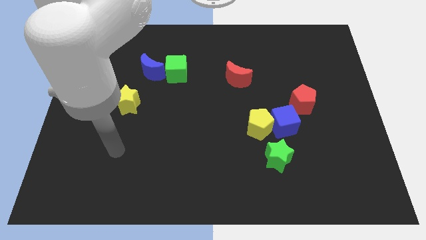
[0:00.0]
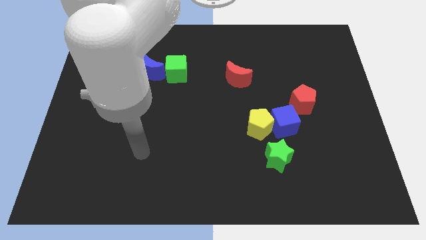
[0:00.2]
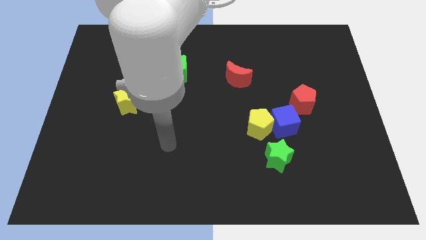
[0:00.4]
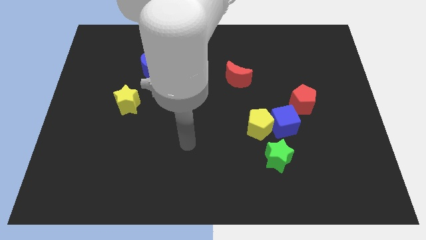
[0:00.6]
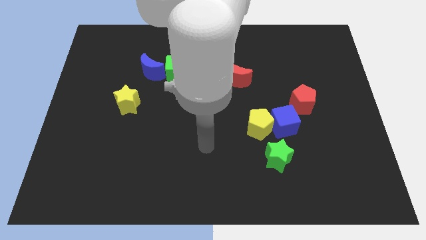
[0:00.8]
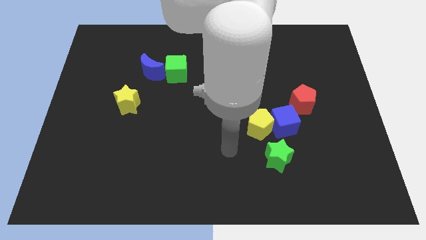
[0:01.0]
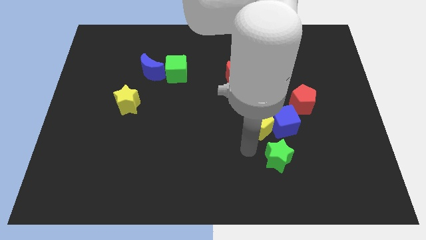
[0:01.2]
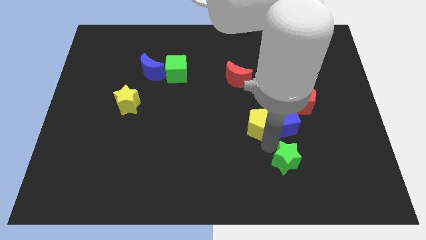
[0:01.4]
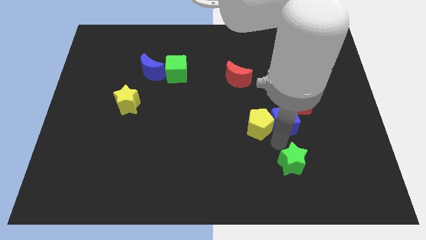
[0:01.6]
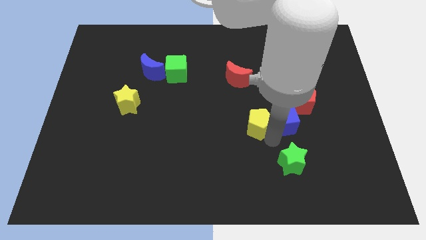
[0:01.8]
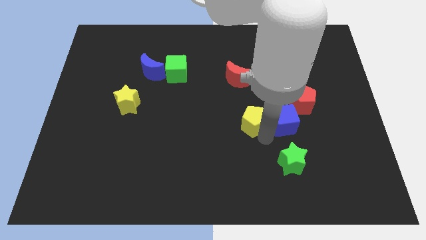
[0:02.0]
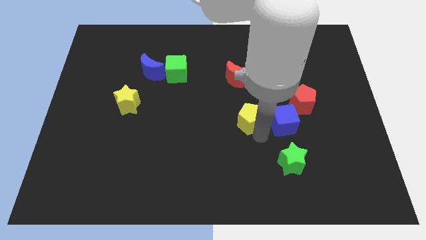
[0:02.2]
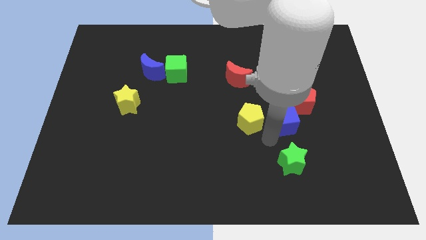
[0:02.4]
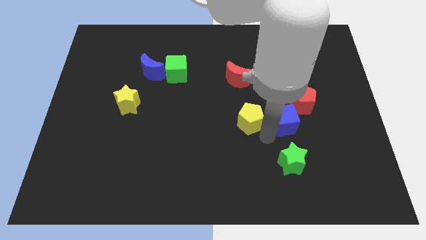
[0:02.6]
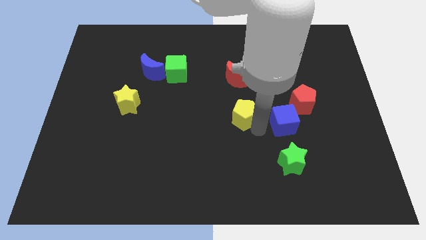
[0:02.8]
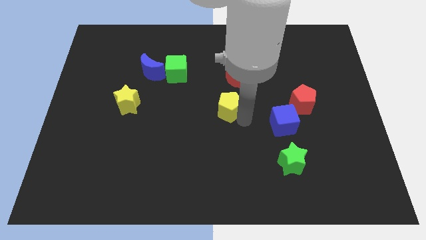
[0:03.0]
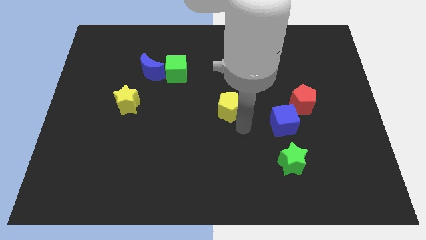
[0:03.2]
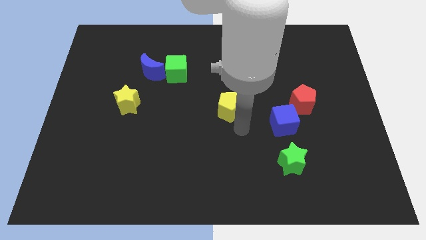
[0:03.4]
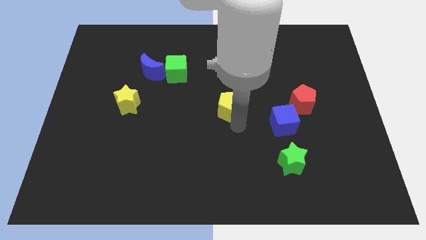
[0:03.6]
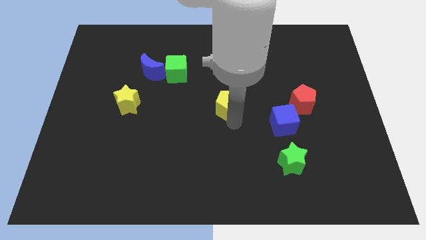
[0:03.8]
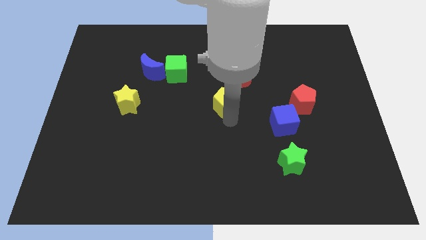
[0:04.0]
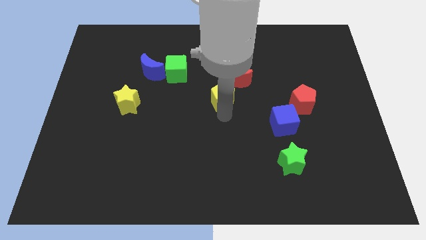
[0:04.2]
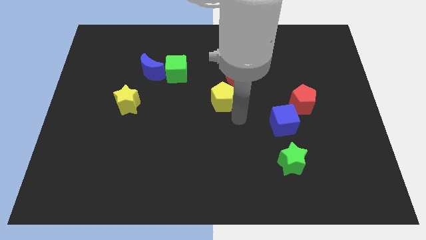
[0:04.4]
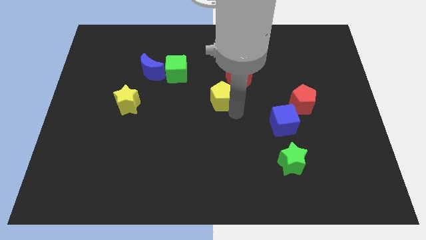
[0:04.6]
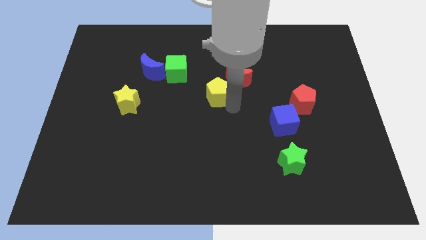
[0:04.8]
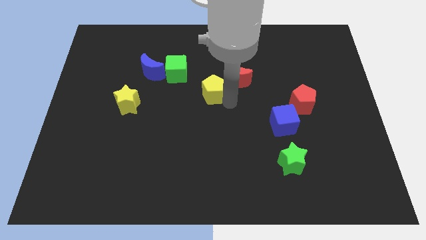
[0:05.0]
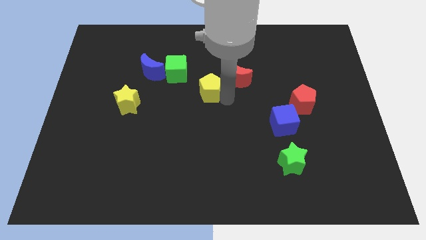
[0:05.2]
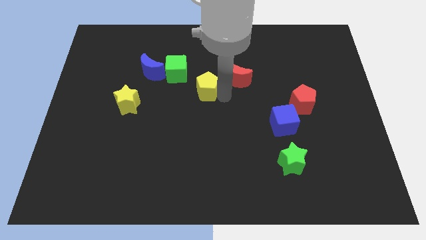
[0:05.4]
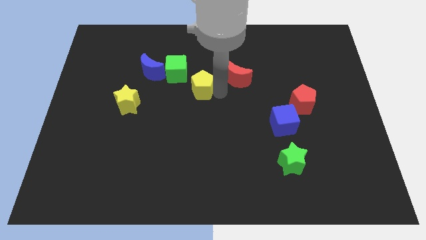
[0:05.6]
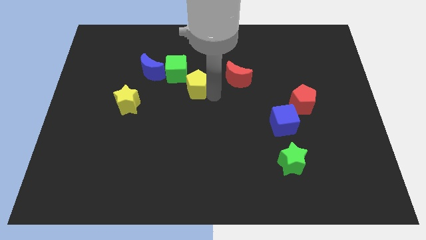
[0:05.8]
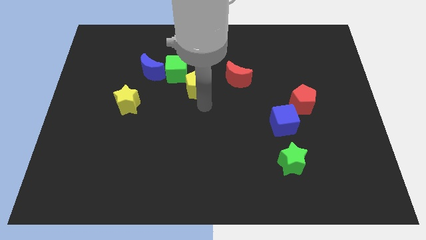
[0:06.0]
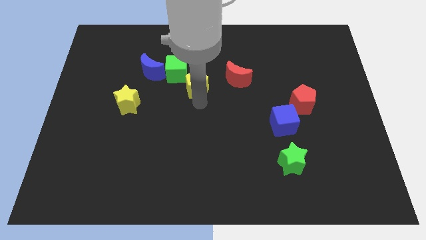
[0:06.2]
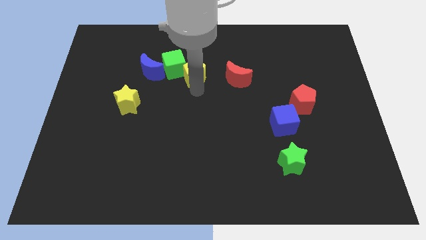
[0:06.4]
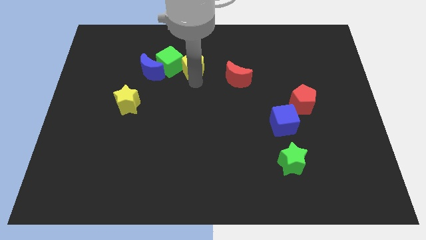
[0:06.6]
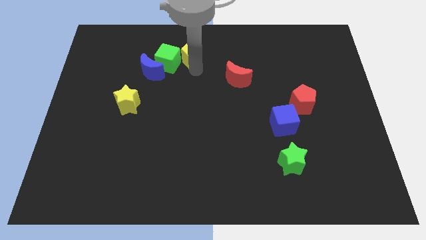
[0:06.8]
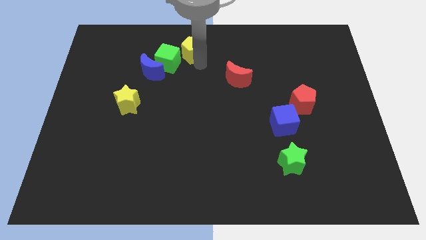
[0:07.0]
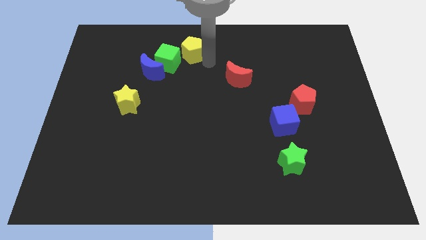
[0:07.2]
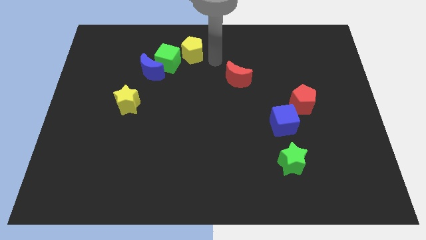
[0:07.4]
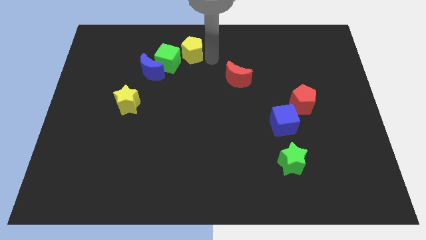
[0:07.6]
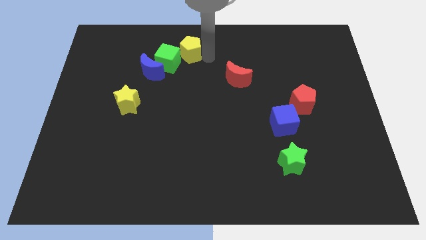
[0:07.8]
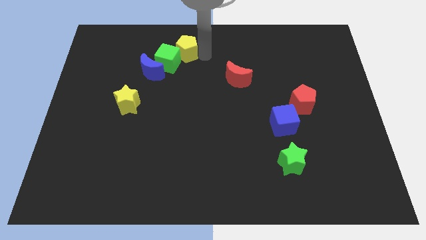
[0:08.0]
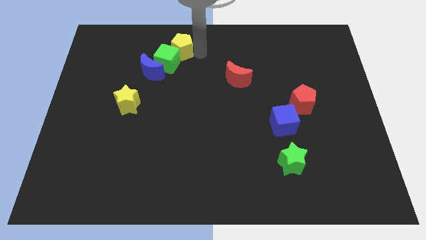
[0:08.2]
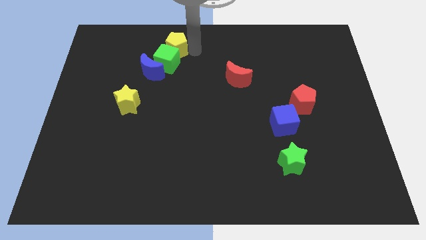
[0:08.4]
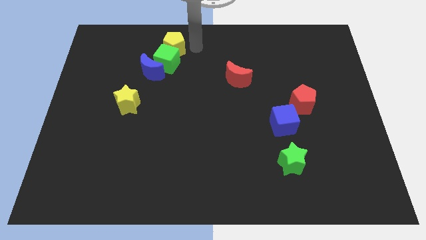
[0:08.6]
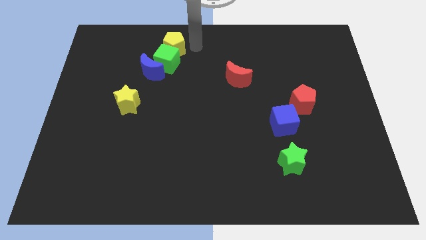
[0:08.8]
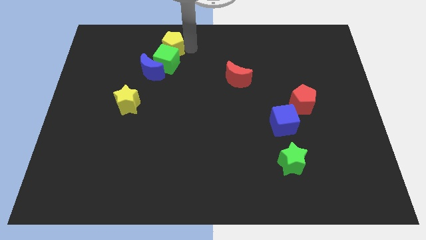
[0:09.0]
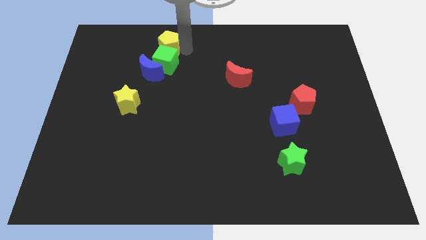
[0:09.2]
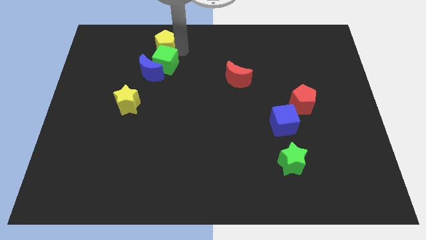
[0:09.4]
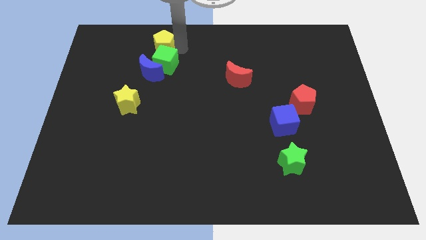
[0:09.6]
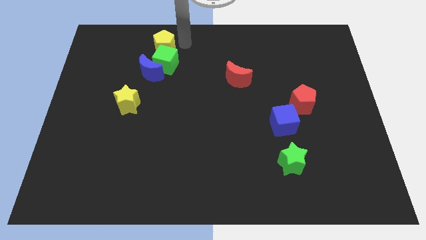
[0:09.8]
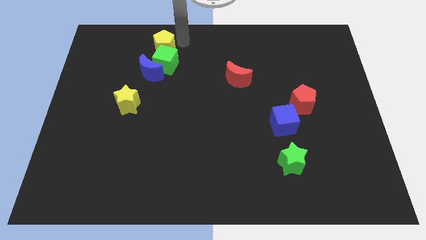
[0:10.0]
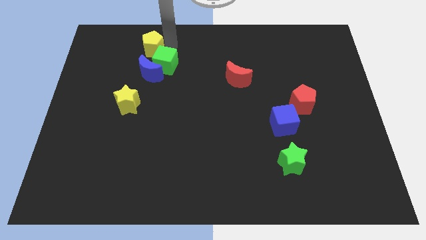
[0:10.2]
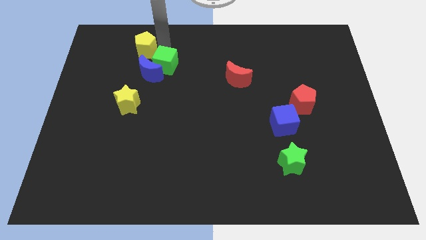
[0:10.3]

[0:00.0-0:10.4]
move the yellow pentagon to the top left of the blue moon

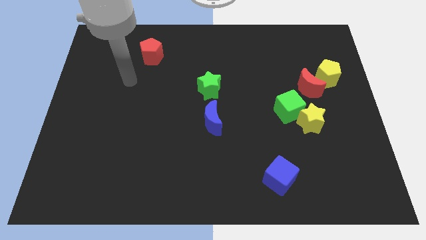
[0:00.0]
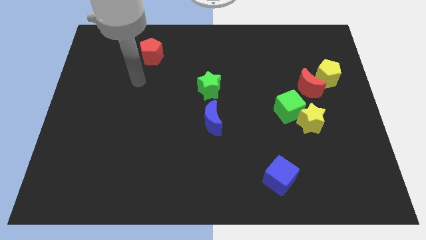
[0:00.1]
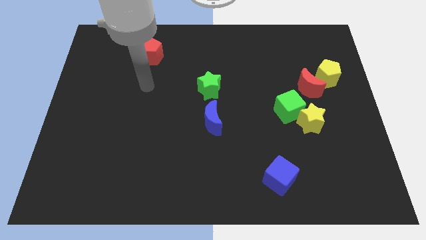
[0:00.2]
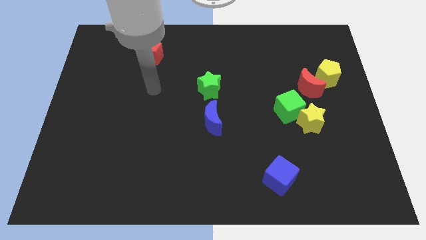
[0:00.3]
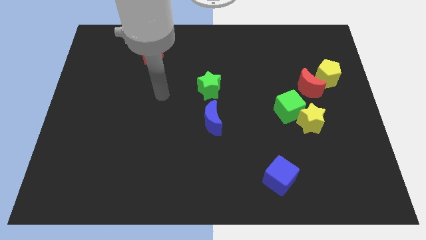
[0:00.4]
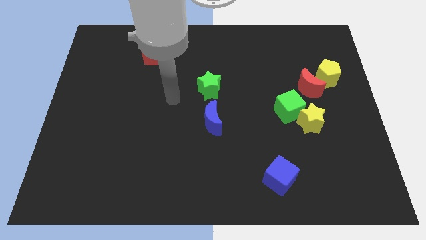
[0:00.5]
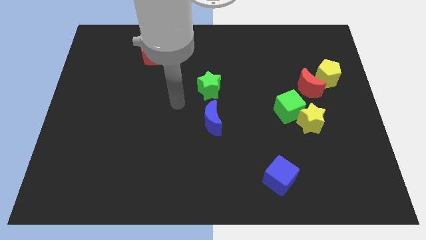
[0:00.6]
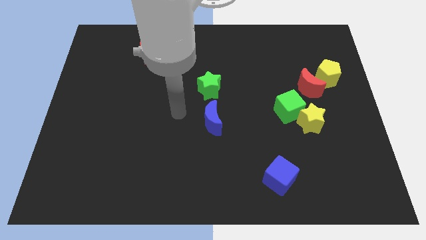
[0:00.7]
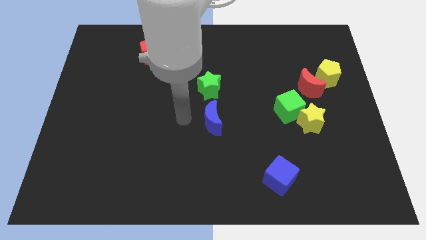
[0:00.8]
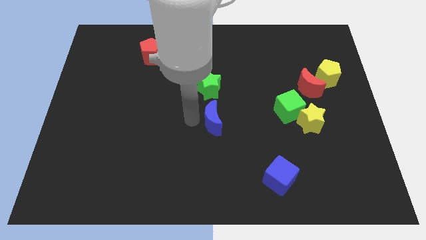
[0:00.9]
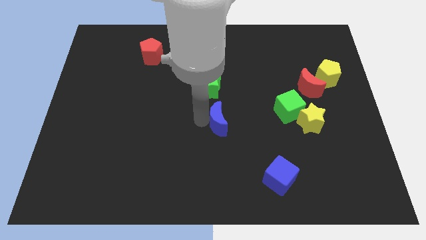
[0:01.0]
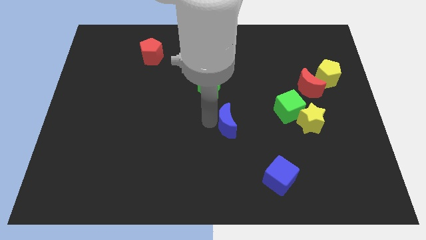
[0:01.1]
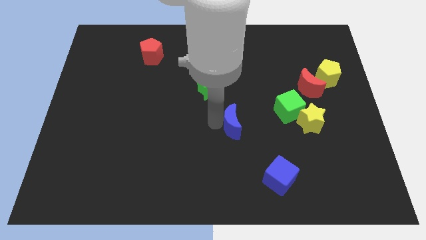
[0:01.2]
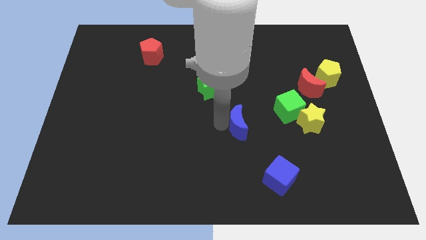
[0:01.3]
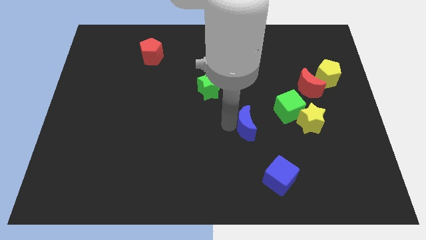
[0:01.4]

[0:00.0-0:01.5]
slide the blue moon to the bottom left side of the green cube
